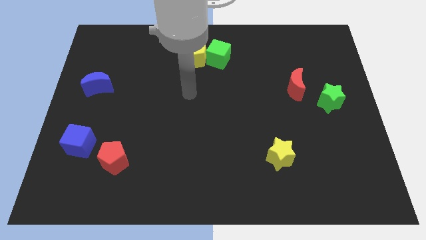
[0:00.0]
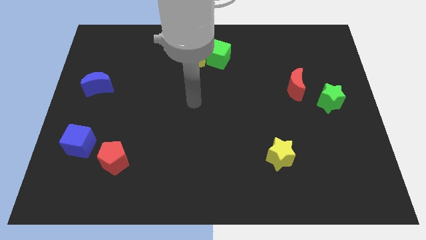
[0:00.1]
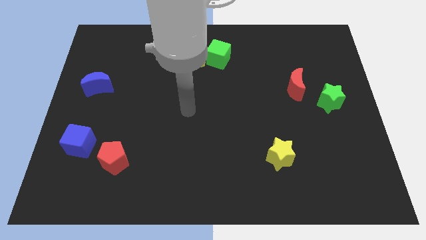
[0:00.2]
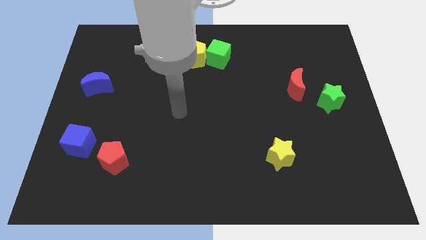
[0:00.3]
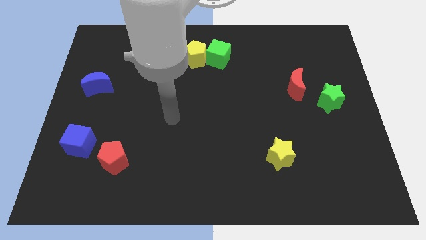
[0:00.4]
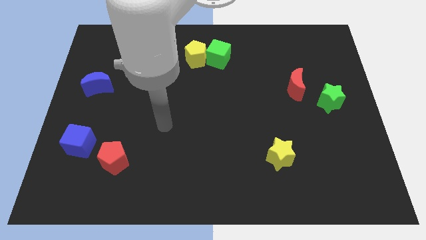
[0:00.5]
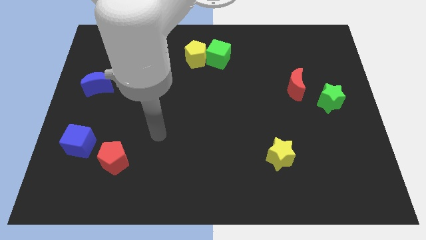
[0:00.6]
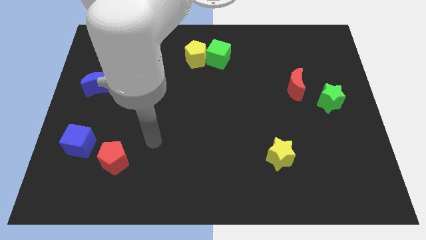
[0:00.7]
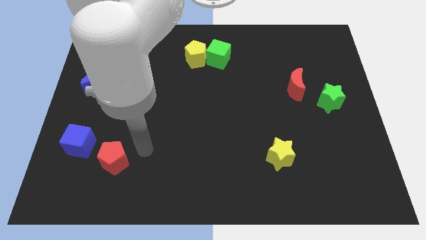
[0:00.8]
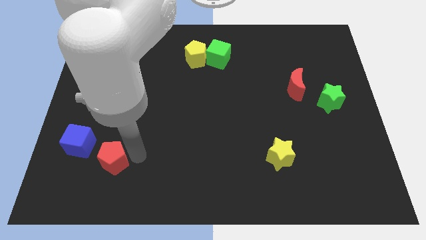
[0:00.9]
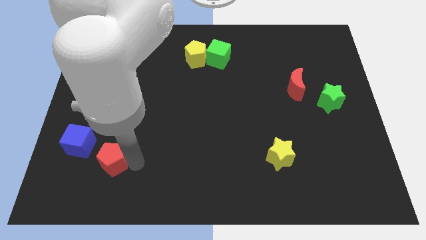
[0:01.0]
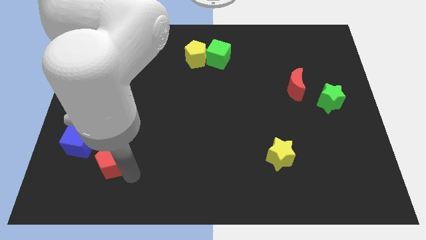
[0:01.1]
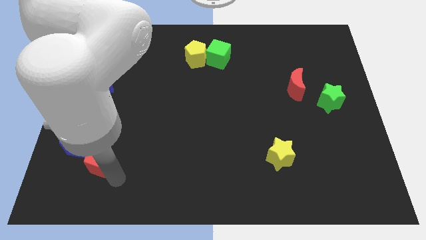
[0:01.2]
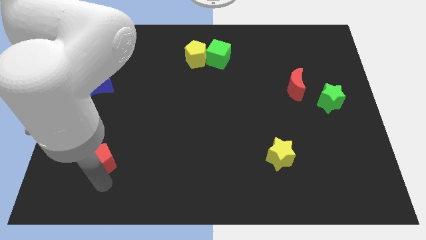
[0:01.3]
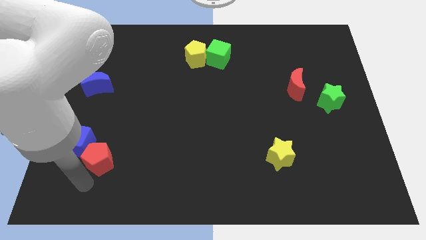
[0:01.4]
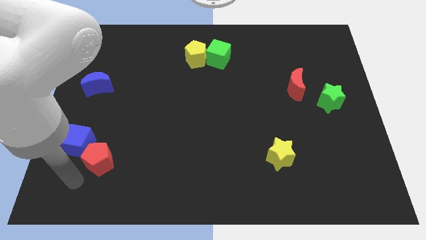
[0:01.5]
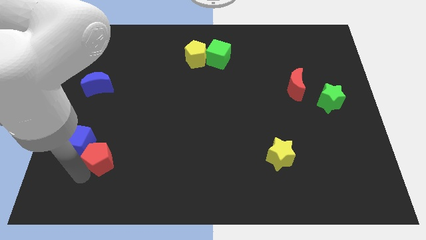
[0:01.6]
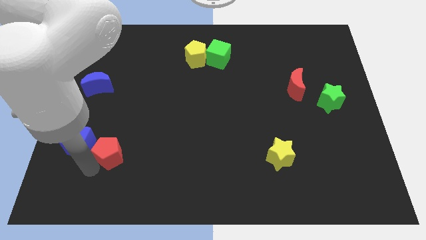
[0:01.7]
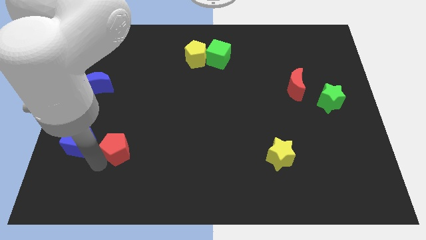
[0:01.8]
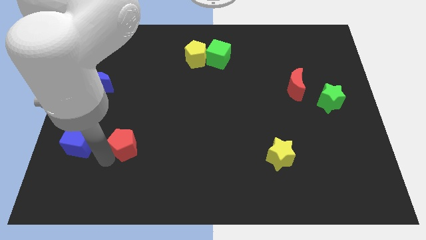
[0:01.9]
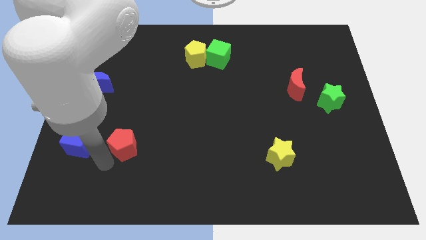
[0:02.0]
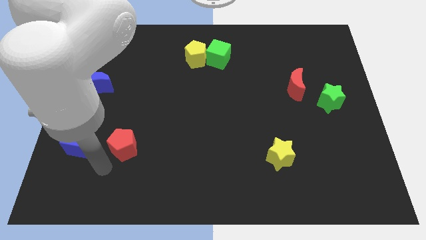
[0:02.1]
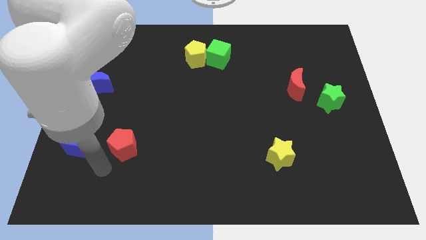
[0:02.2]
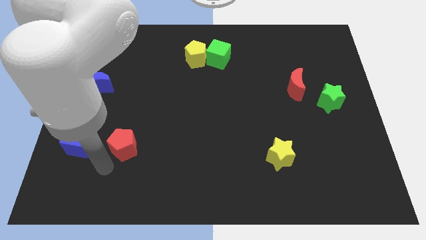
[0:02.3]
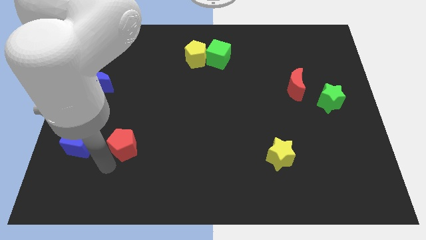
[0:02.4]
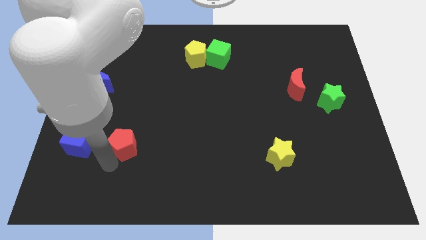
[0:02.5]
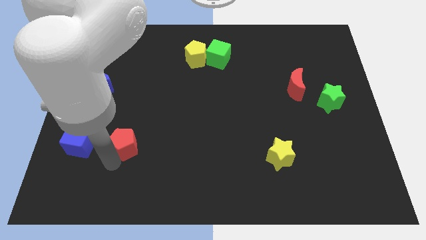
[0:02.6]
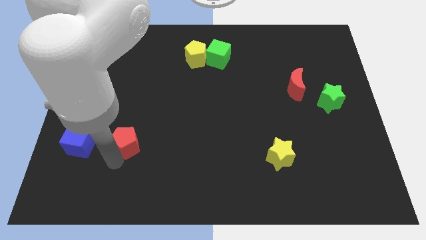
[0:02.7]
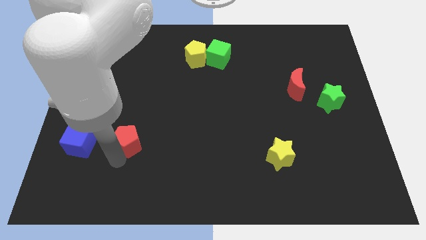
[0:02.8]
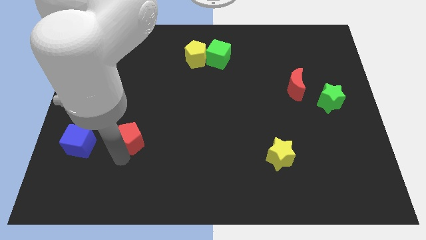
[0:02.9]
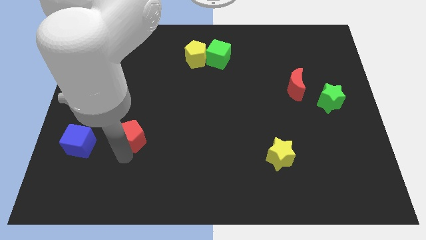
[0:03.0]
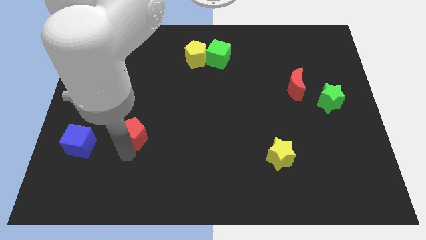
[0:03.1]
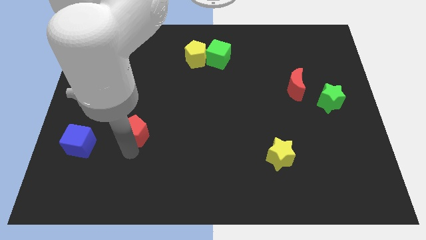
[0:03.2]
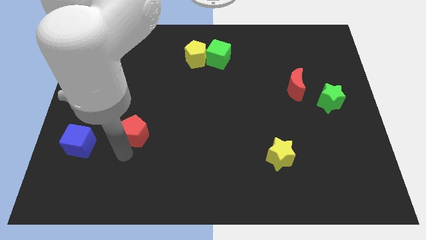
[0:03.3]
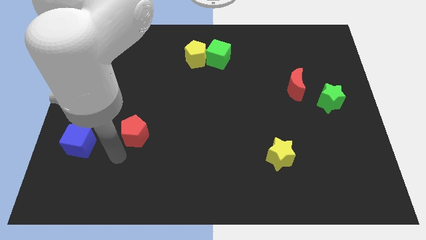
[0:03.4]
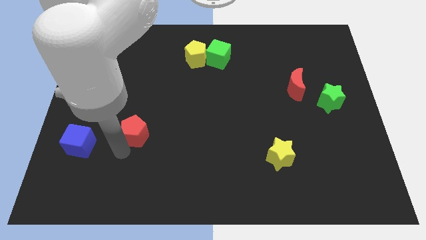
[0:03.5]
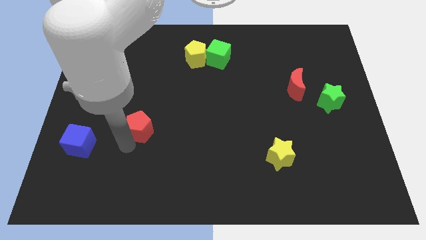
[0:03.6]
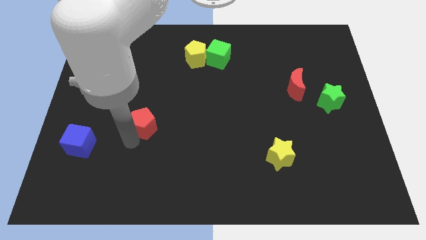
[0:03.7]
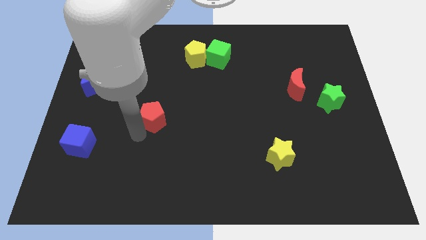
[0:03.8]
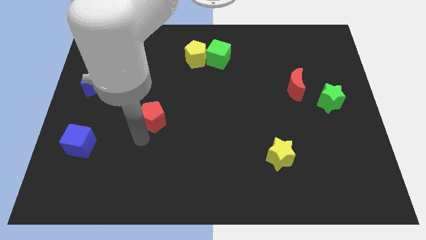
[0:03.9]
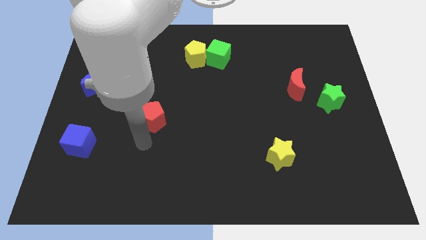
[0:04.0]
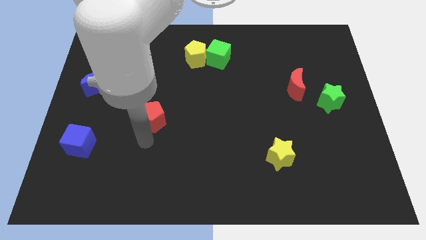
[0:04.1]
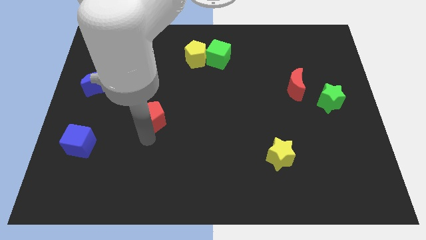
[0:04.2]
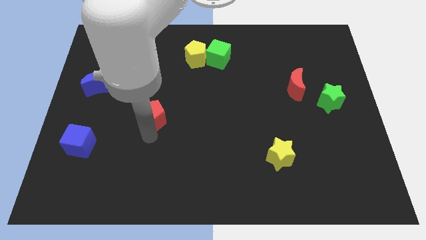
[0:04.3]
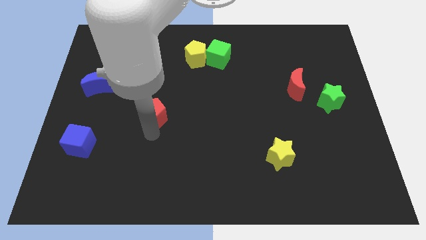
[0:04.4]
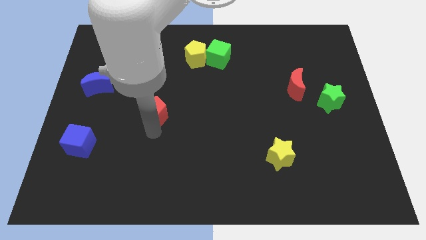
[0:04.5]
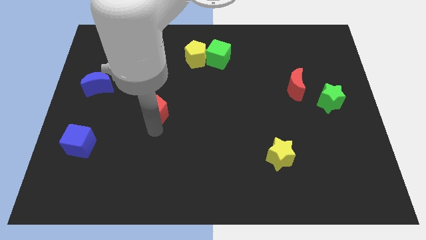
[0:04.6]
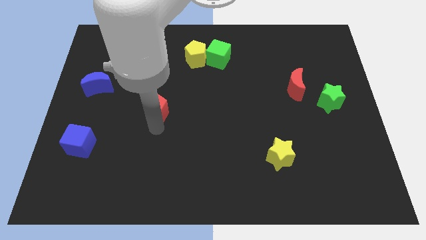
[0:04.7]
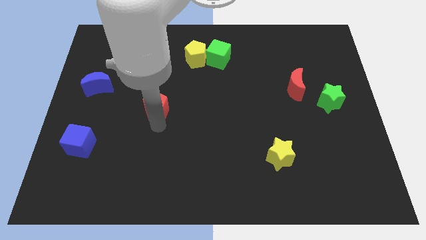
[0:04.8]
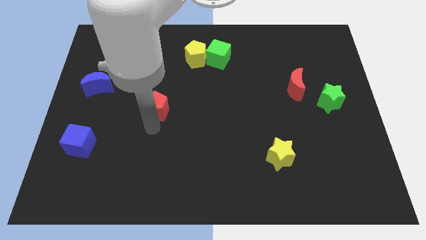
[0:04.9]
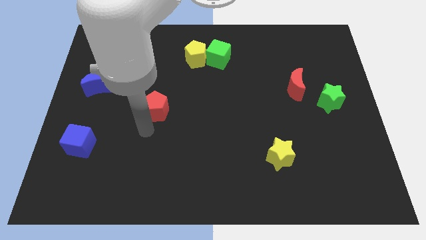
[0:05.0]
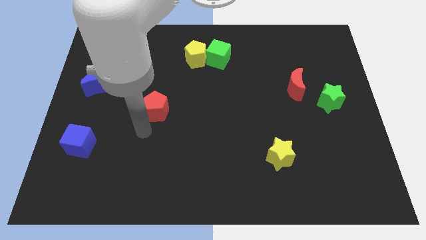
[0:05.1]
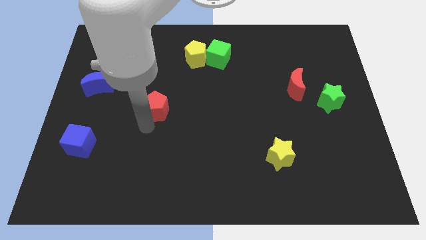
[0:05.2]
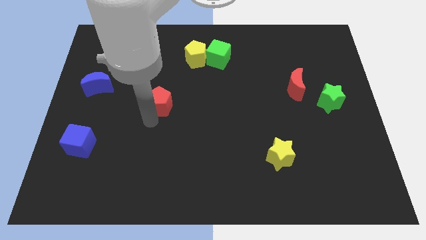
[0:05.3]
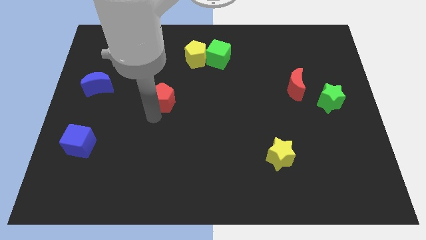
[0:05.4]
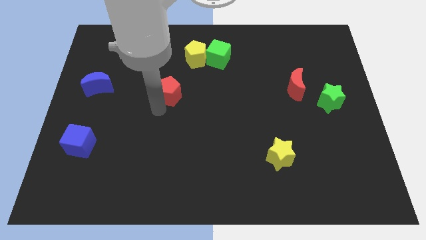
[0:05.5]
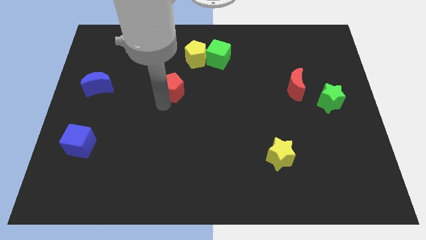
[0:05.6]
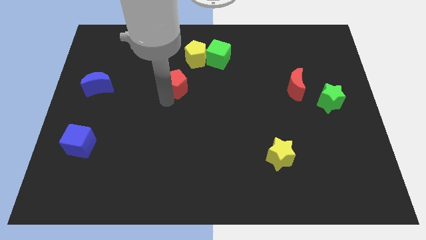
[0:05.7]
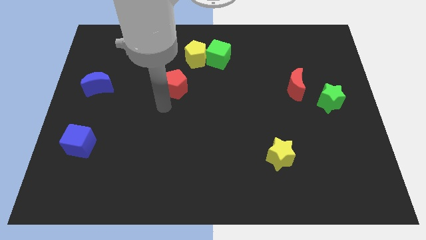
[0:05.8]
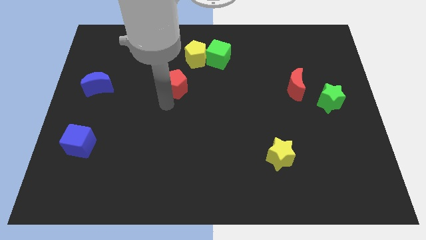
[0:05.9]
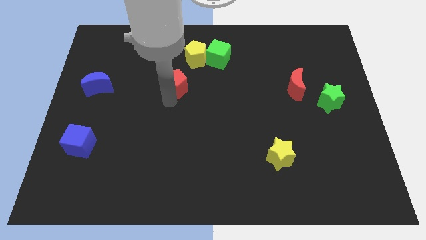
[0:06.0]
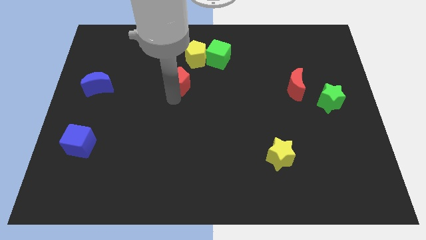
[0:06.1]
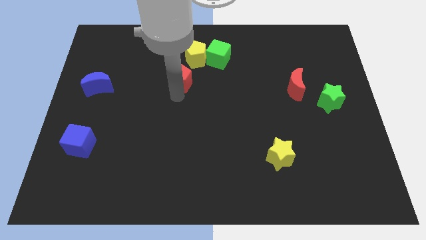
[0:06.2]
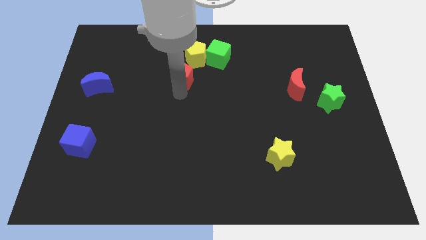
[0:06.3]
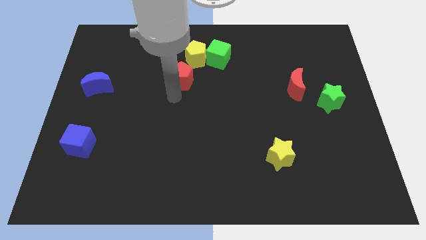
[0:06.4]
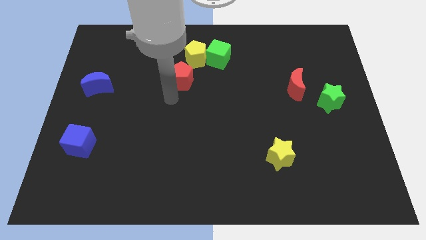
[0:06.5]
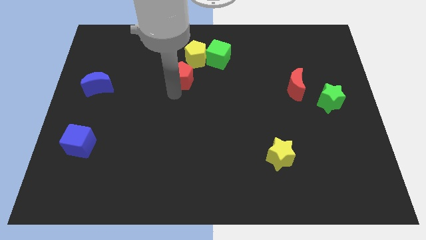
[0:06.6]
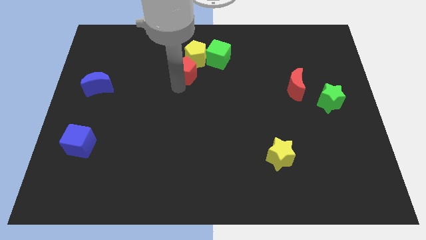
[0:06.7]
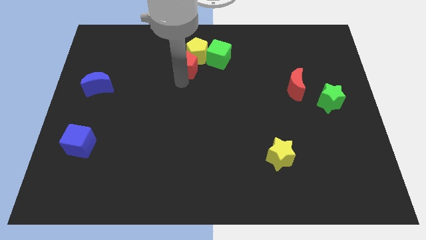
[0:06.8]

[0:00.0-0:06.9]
move the red pentagon towards the yellow pentagon

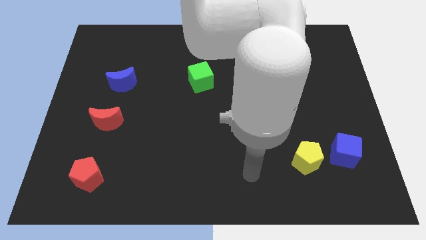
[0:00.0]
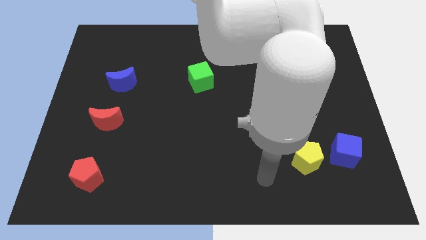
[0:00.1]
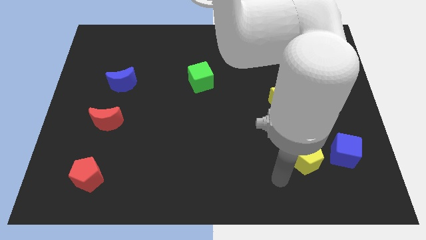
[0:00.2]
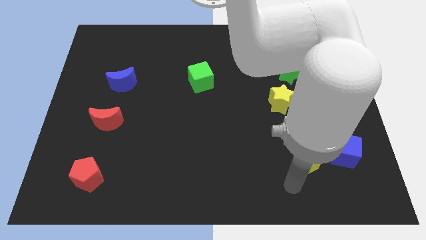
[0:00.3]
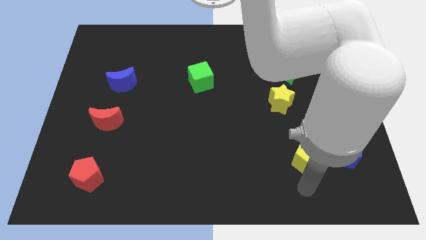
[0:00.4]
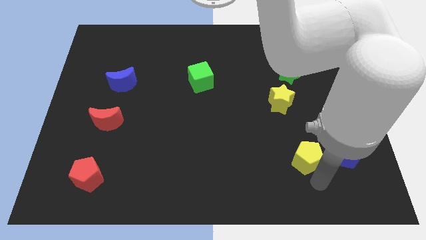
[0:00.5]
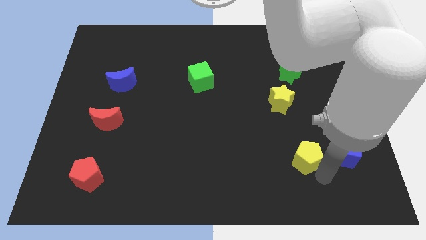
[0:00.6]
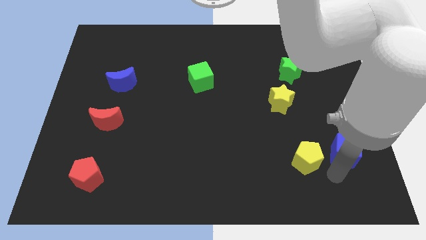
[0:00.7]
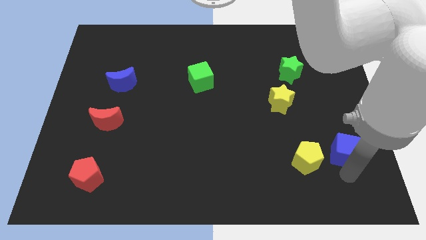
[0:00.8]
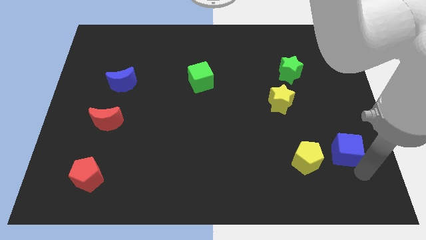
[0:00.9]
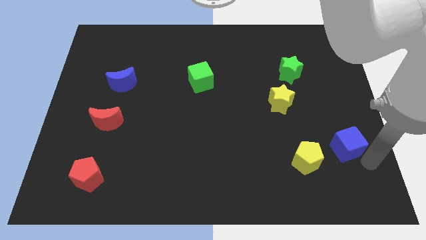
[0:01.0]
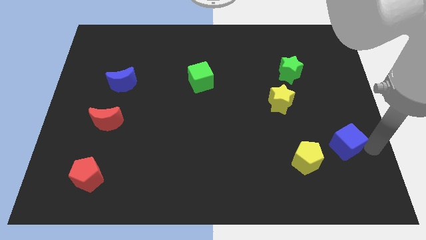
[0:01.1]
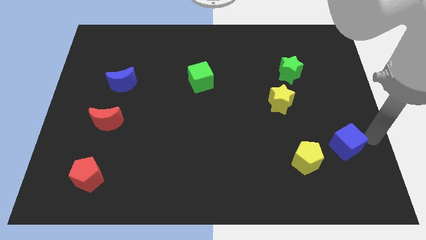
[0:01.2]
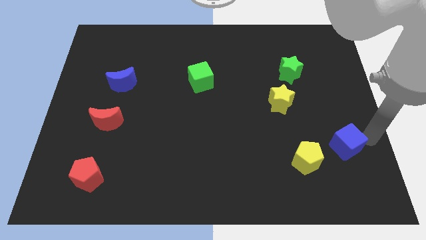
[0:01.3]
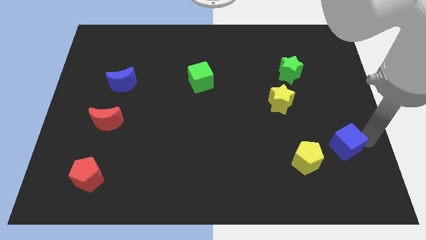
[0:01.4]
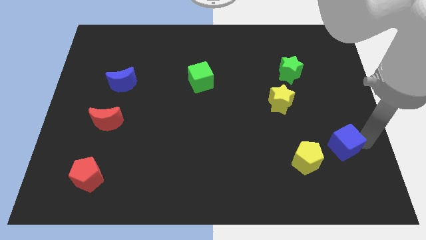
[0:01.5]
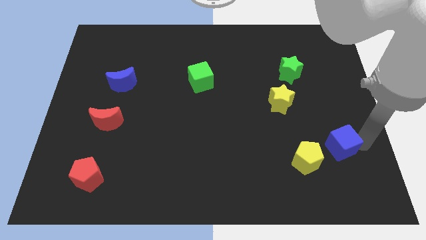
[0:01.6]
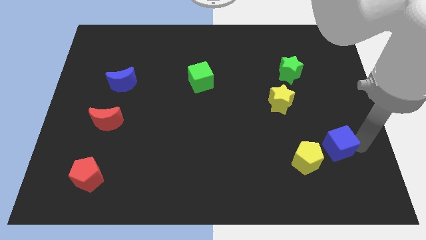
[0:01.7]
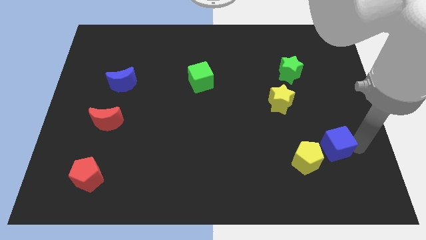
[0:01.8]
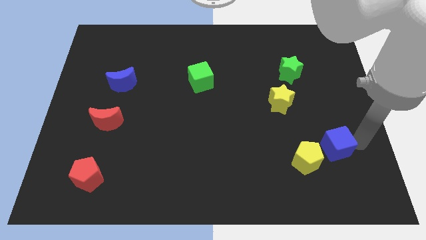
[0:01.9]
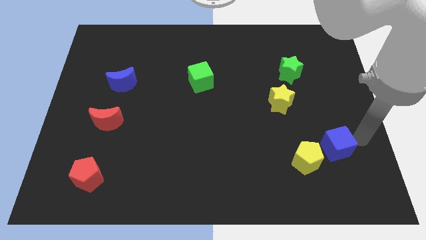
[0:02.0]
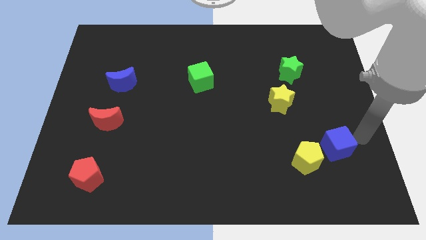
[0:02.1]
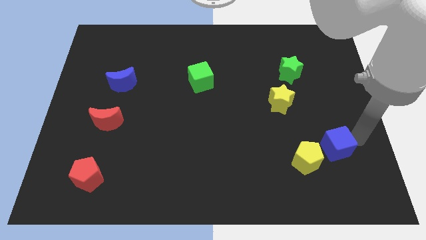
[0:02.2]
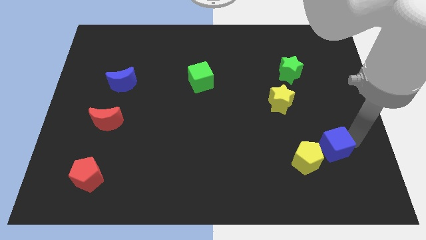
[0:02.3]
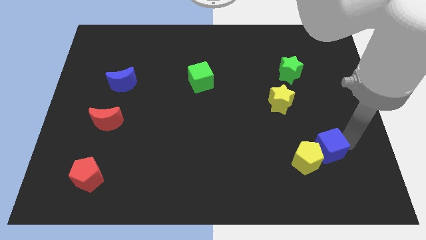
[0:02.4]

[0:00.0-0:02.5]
put the blue cube to the yellow pentagon
